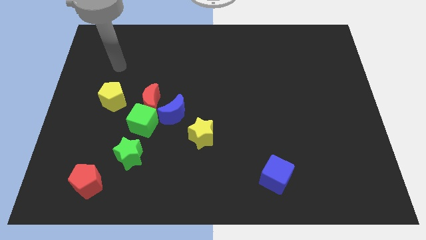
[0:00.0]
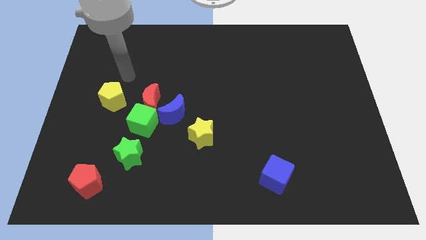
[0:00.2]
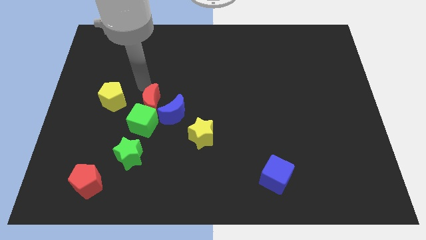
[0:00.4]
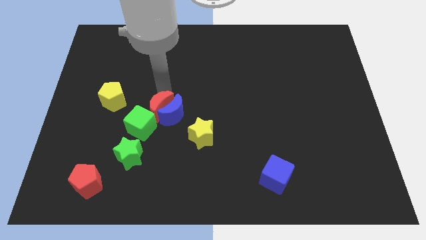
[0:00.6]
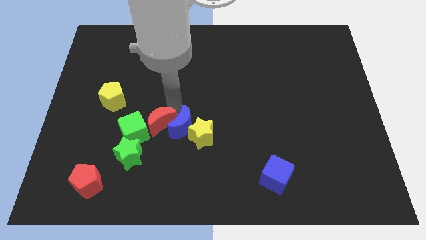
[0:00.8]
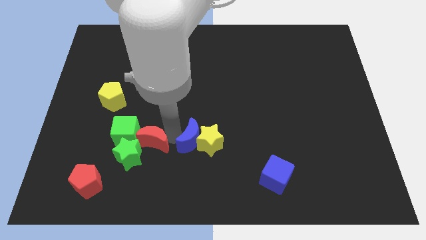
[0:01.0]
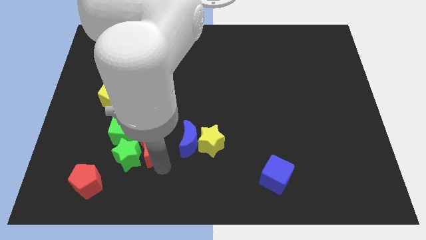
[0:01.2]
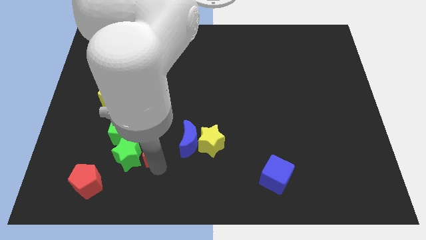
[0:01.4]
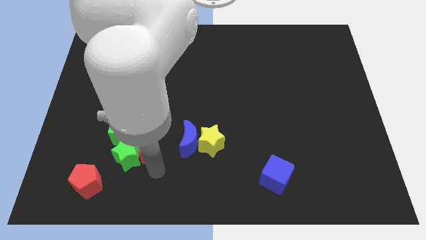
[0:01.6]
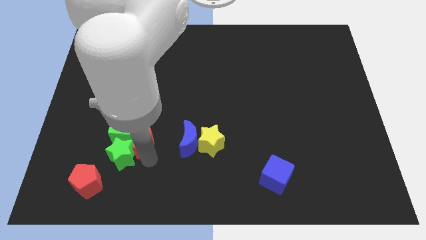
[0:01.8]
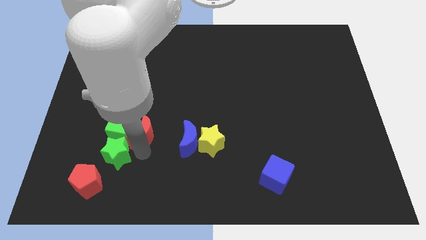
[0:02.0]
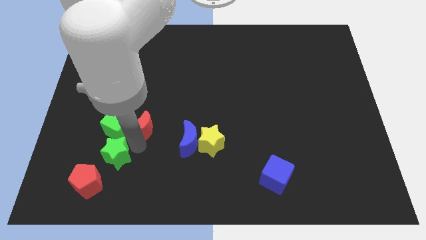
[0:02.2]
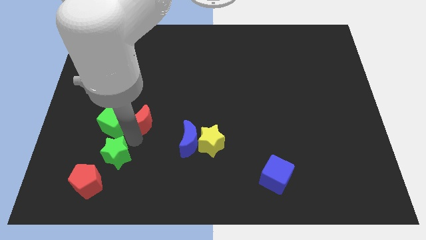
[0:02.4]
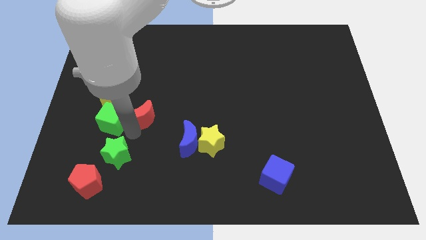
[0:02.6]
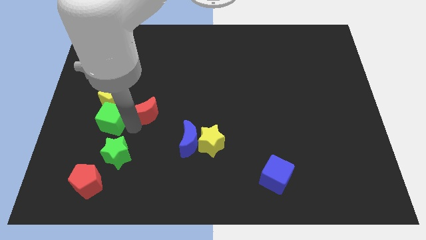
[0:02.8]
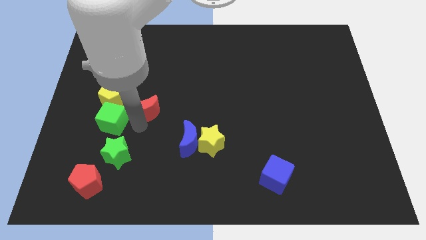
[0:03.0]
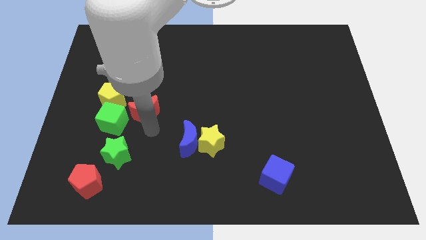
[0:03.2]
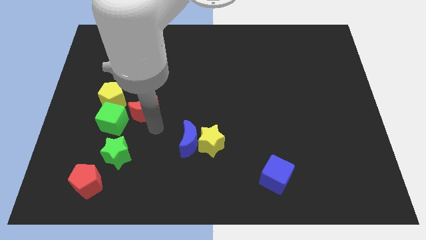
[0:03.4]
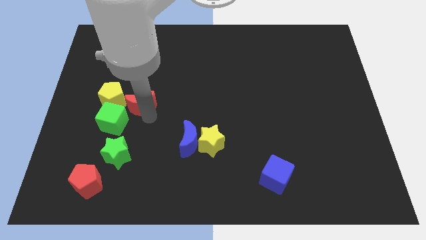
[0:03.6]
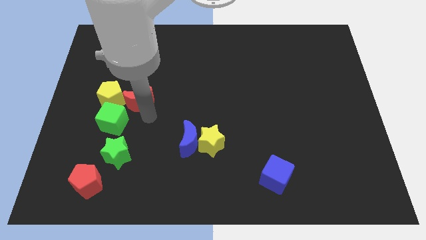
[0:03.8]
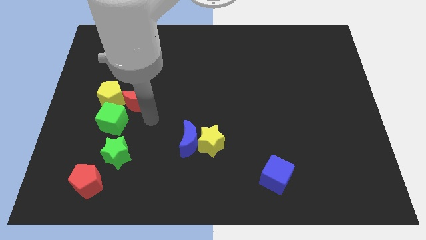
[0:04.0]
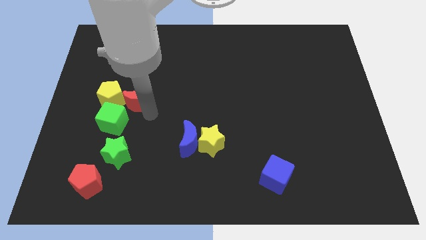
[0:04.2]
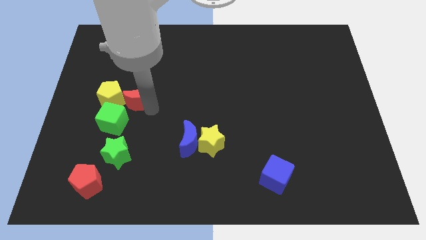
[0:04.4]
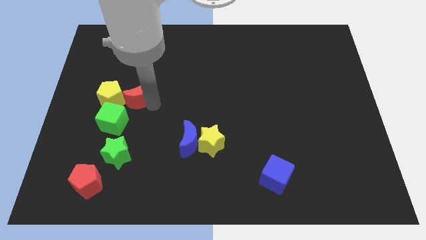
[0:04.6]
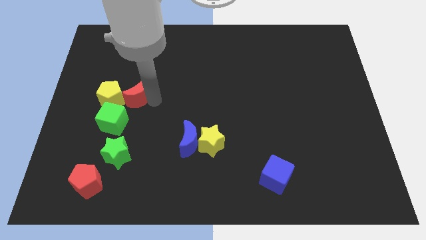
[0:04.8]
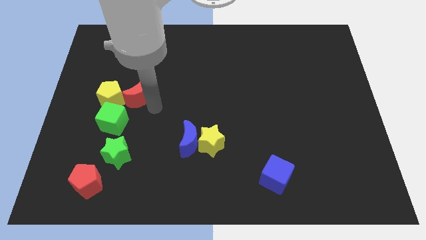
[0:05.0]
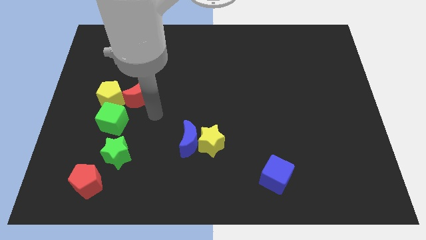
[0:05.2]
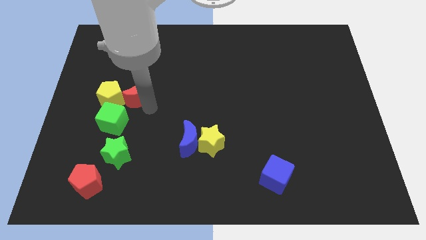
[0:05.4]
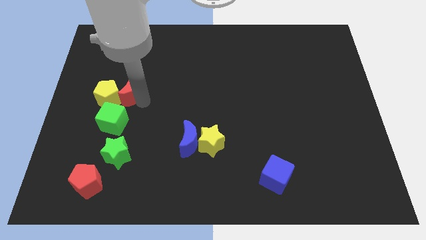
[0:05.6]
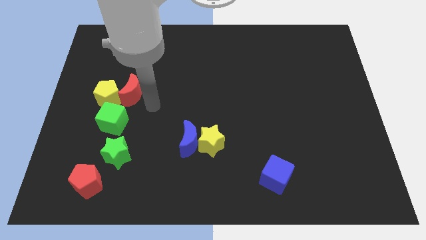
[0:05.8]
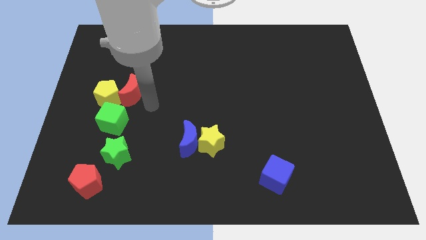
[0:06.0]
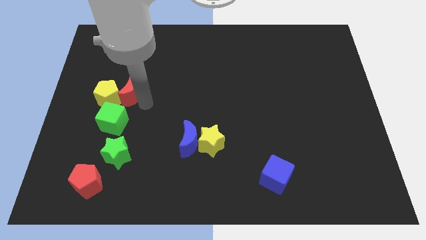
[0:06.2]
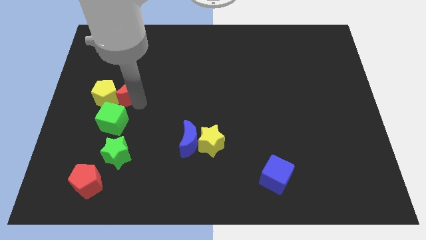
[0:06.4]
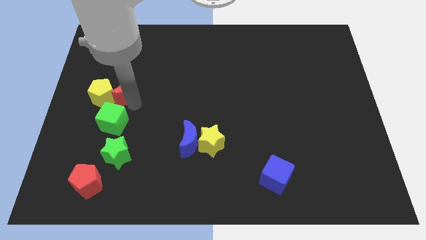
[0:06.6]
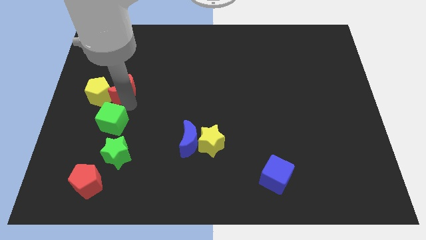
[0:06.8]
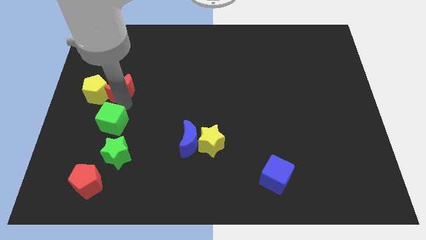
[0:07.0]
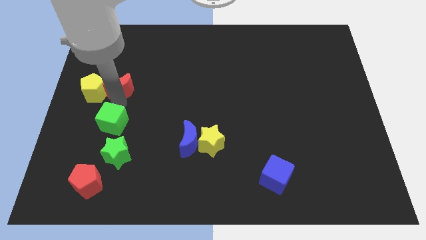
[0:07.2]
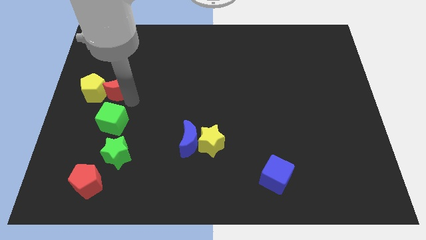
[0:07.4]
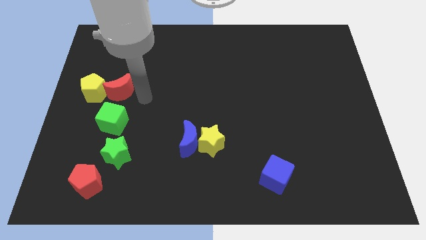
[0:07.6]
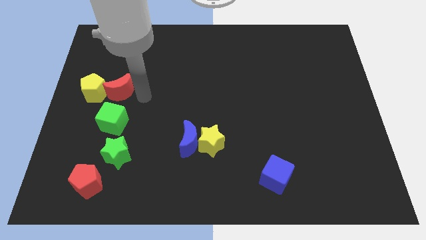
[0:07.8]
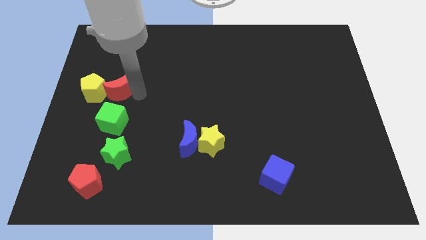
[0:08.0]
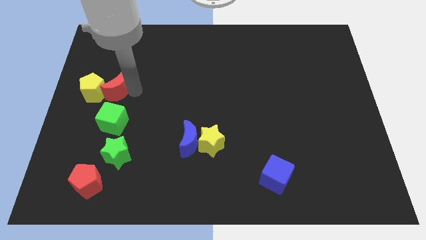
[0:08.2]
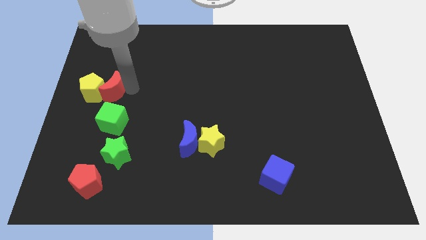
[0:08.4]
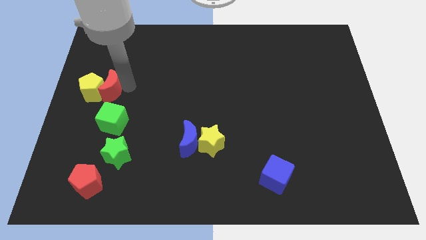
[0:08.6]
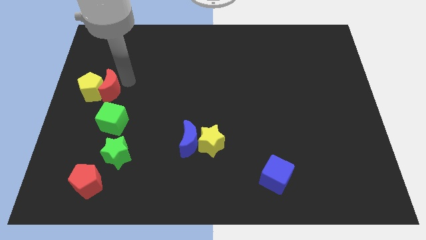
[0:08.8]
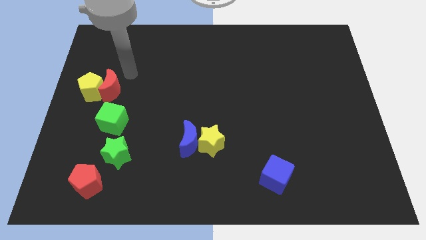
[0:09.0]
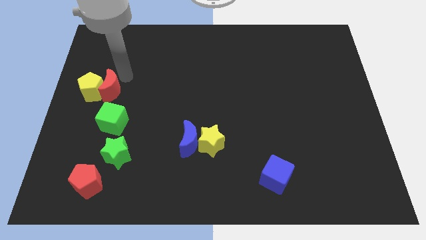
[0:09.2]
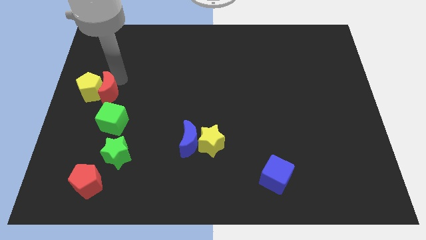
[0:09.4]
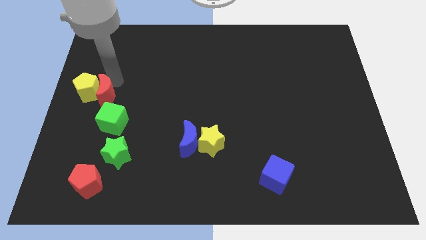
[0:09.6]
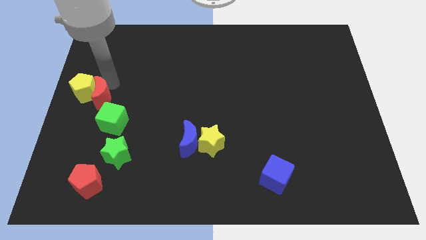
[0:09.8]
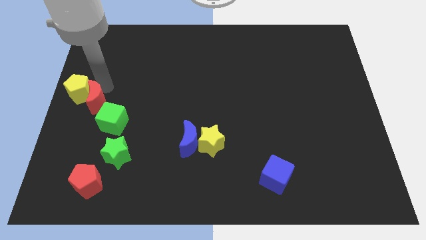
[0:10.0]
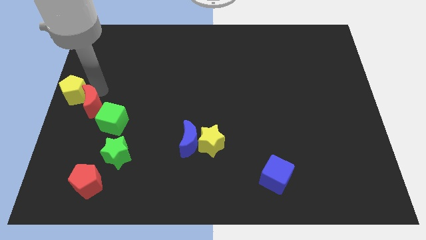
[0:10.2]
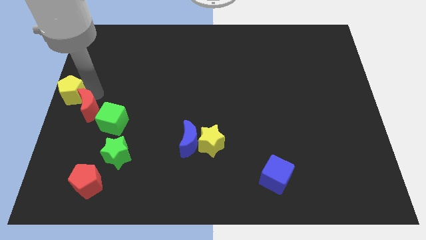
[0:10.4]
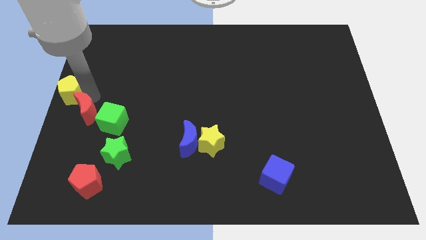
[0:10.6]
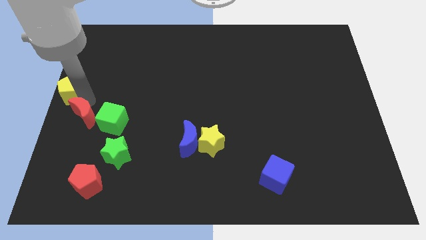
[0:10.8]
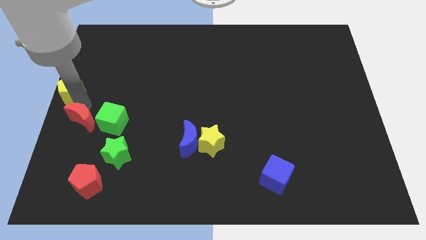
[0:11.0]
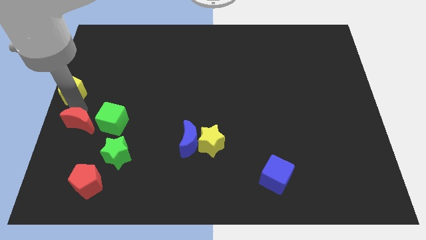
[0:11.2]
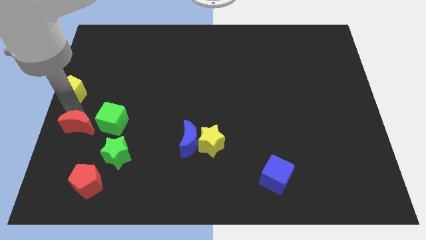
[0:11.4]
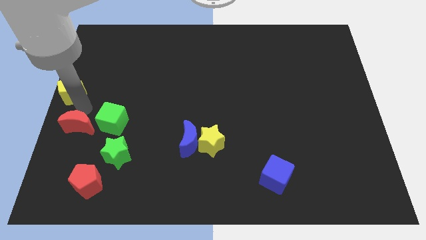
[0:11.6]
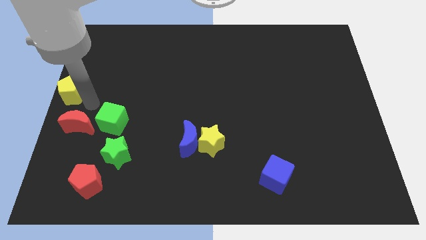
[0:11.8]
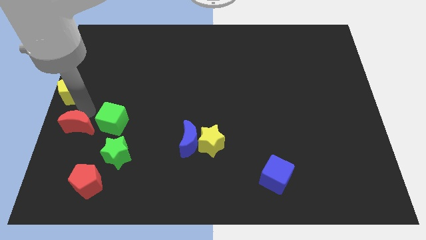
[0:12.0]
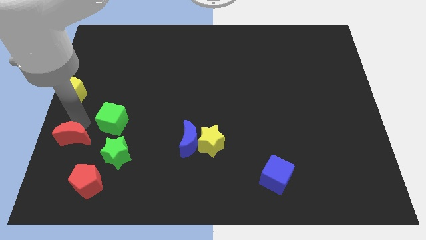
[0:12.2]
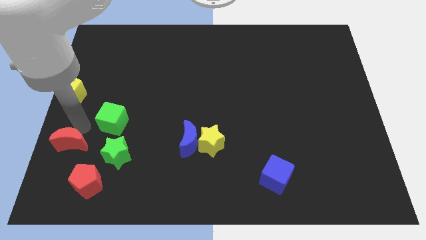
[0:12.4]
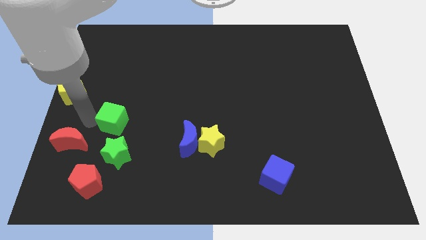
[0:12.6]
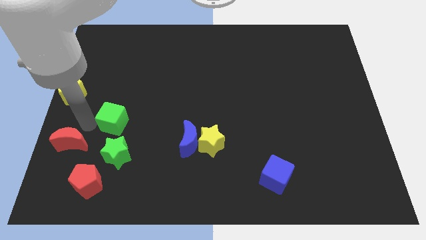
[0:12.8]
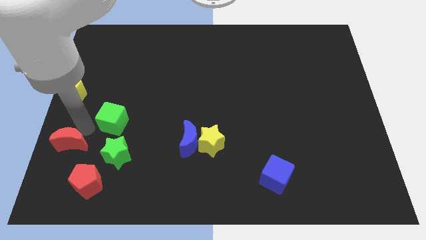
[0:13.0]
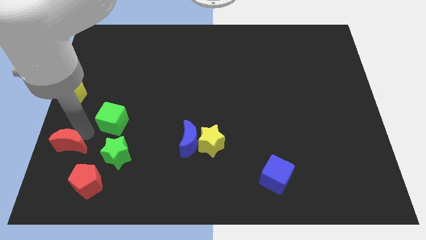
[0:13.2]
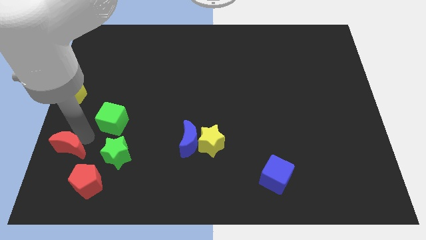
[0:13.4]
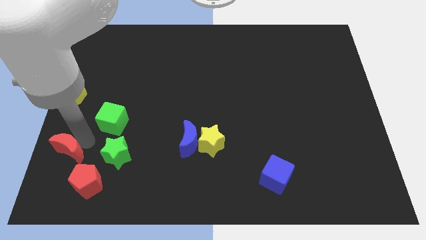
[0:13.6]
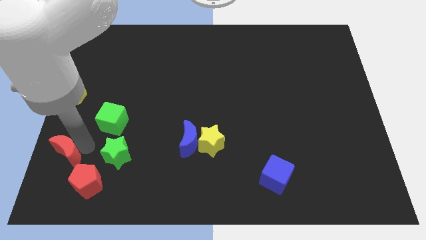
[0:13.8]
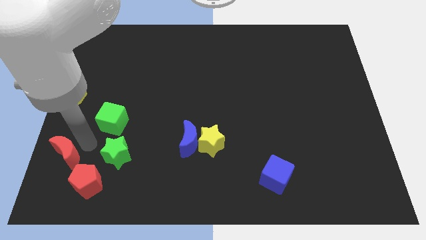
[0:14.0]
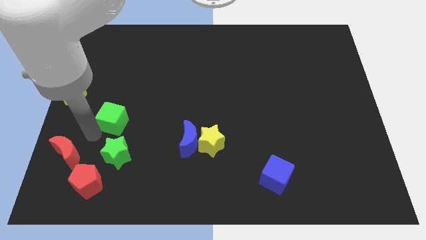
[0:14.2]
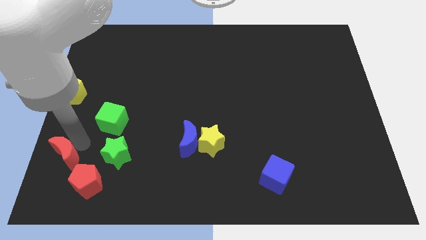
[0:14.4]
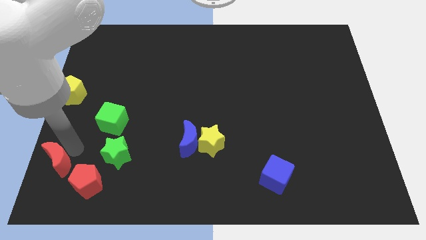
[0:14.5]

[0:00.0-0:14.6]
move the red moon to the bottom left of the board
